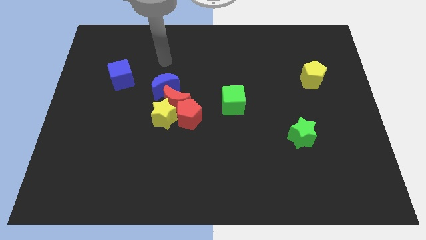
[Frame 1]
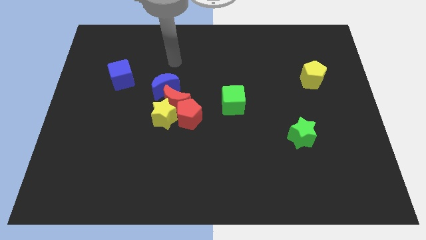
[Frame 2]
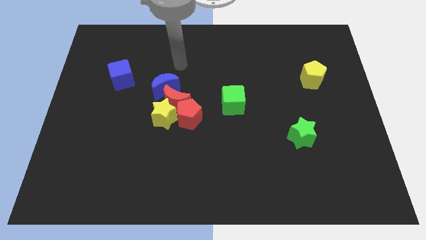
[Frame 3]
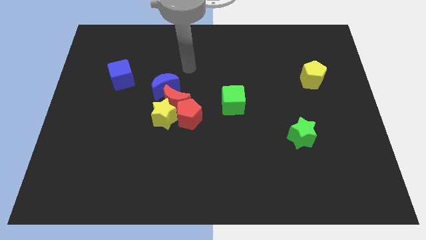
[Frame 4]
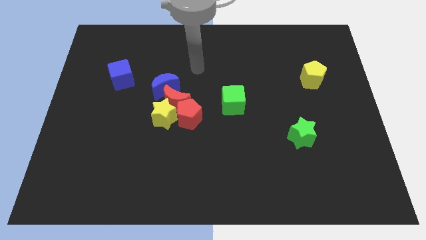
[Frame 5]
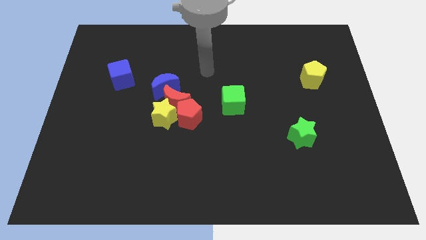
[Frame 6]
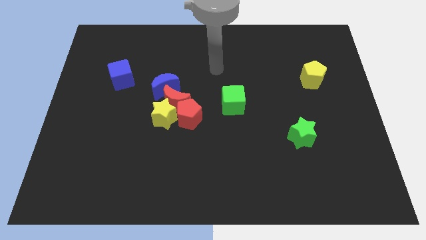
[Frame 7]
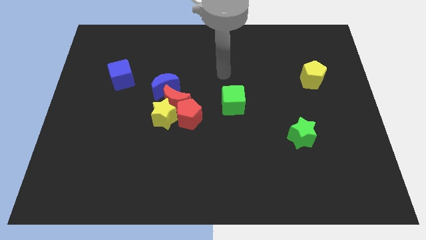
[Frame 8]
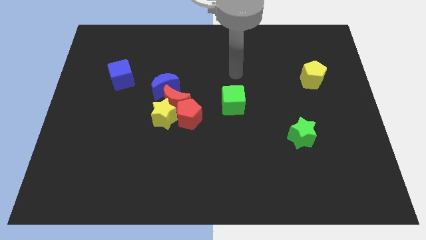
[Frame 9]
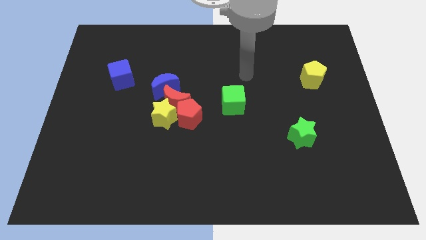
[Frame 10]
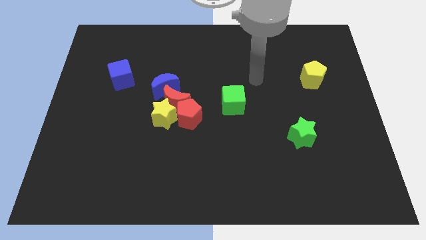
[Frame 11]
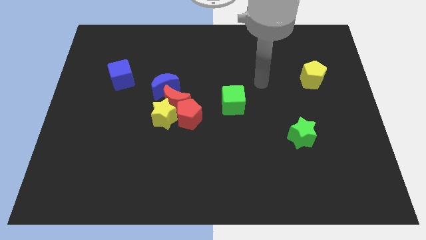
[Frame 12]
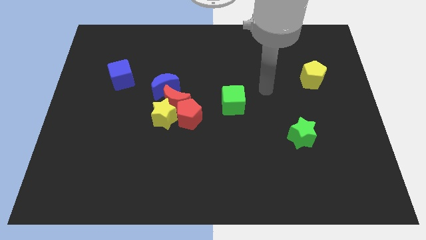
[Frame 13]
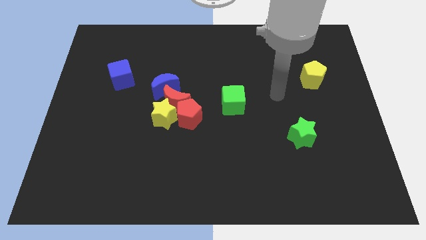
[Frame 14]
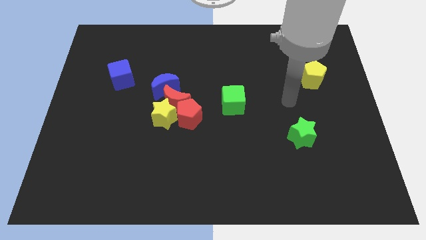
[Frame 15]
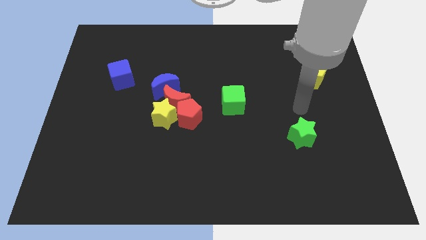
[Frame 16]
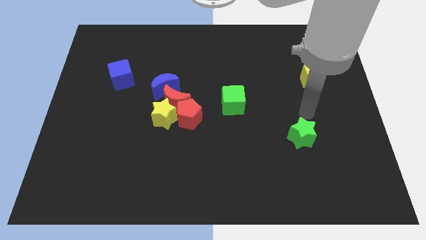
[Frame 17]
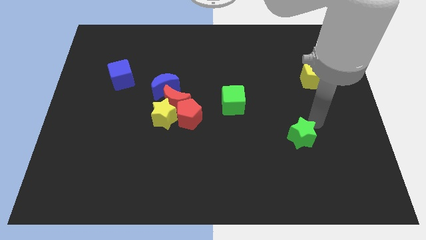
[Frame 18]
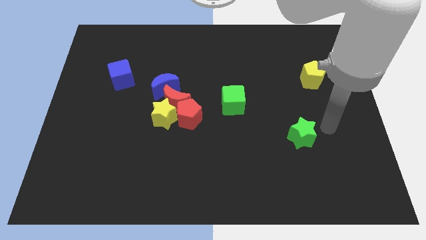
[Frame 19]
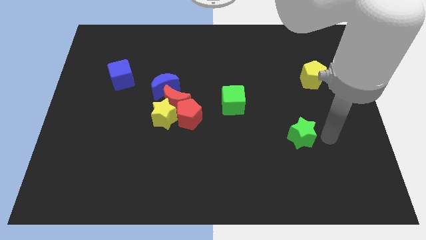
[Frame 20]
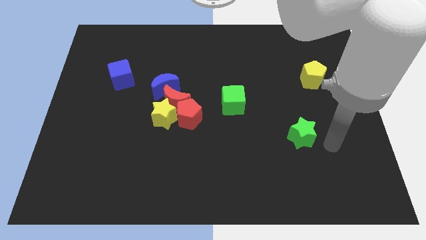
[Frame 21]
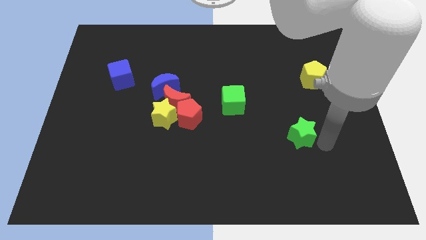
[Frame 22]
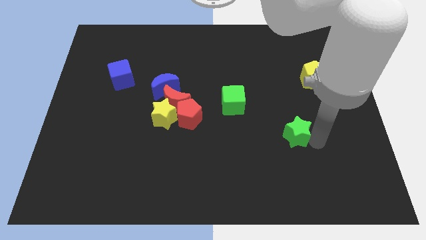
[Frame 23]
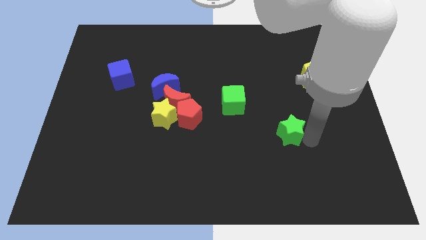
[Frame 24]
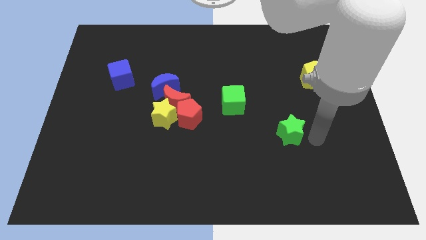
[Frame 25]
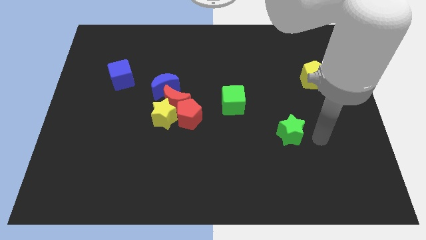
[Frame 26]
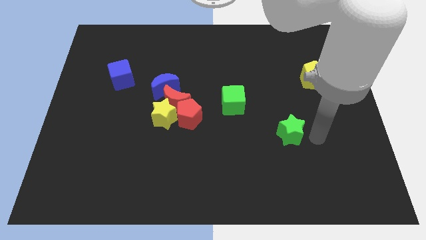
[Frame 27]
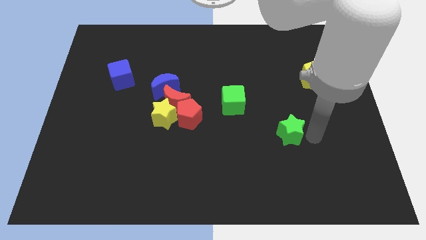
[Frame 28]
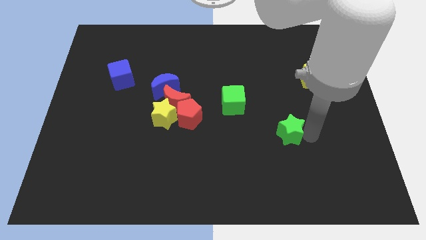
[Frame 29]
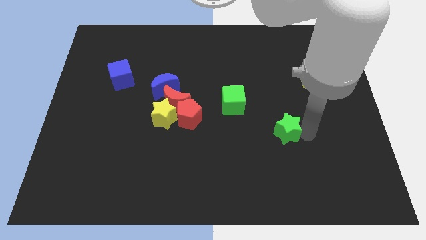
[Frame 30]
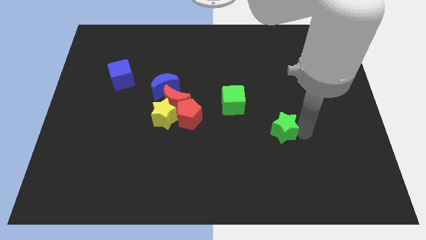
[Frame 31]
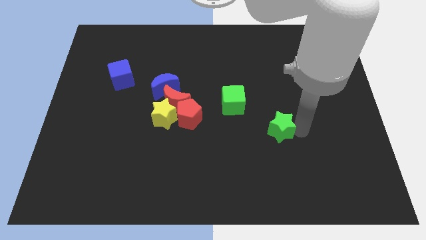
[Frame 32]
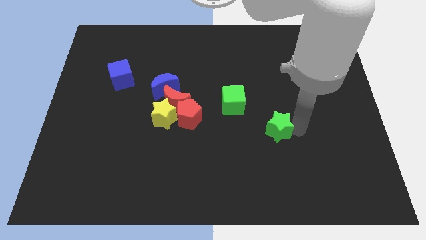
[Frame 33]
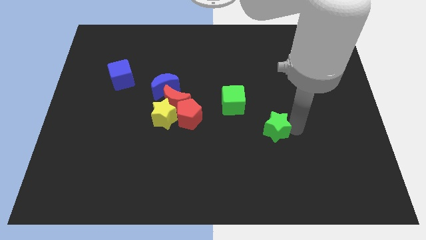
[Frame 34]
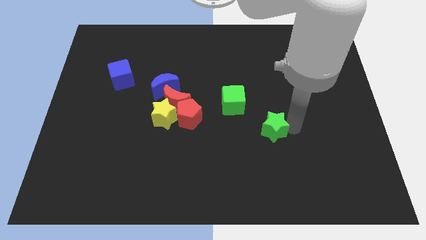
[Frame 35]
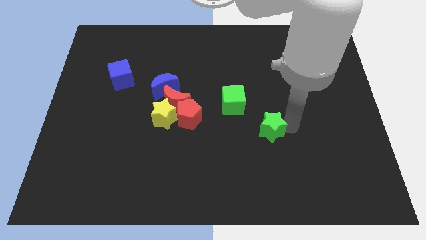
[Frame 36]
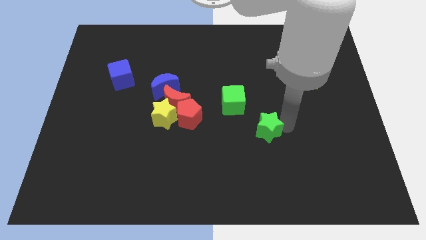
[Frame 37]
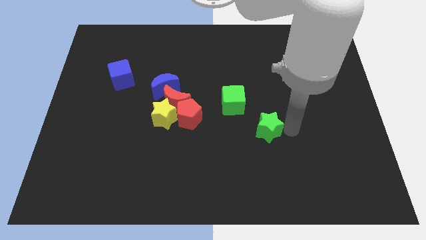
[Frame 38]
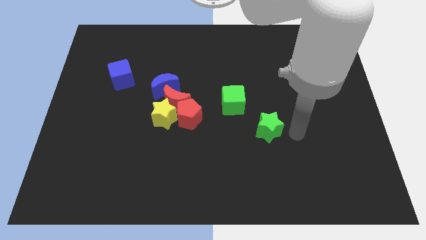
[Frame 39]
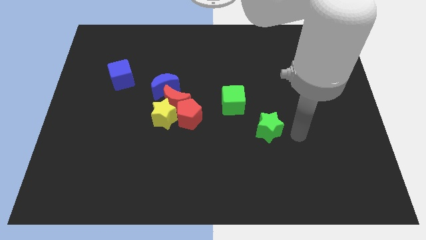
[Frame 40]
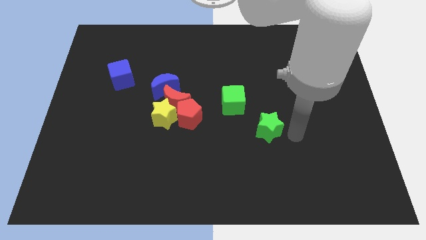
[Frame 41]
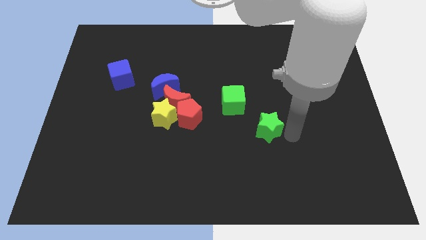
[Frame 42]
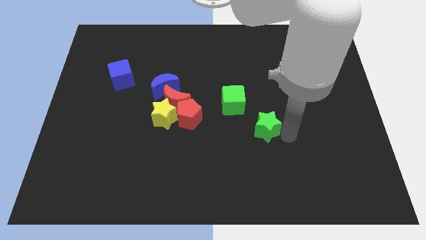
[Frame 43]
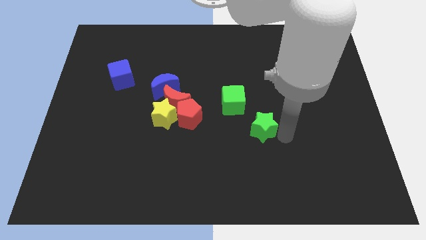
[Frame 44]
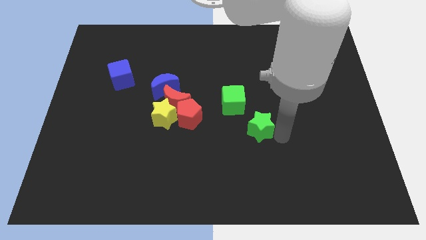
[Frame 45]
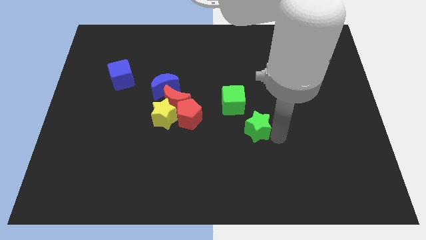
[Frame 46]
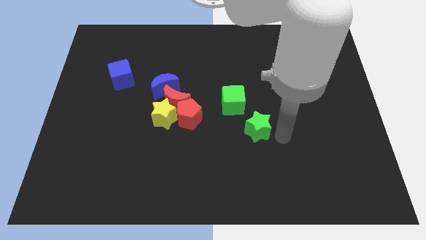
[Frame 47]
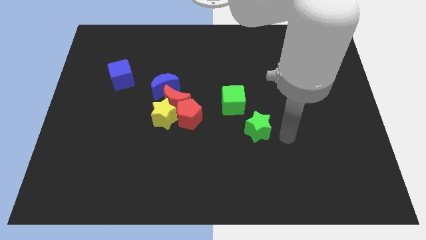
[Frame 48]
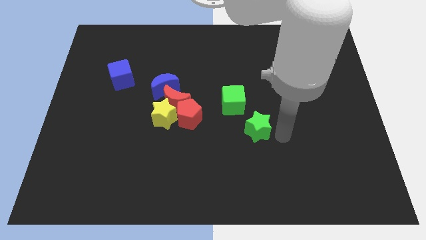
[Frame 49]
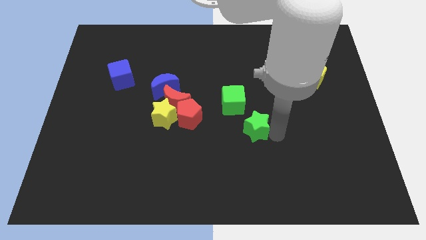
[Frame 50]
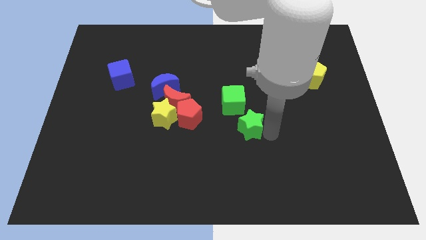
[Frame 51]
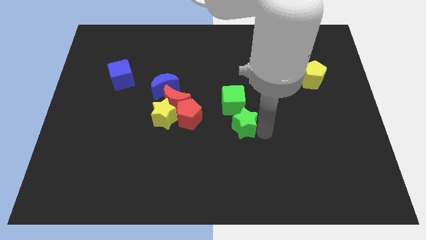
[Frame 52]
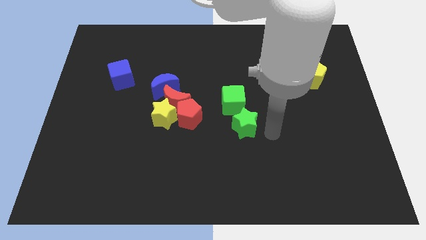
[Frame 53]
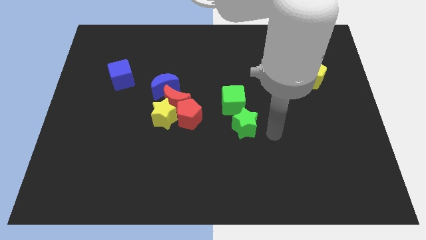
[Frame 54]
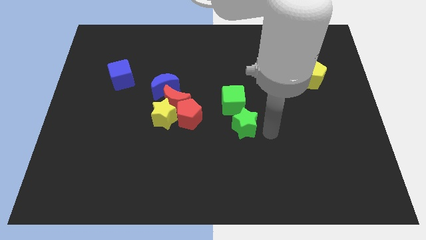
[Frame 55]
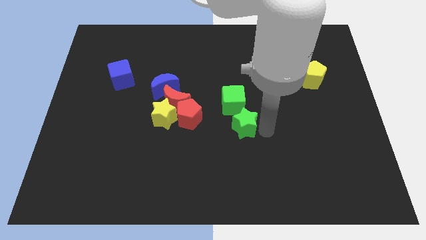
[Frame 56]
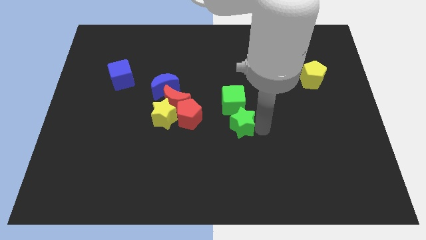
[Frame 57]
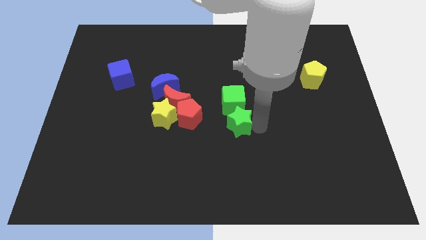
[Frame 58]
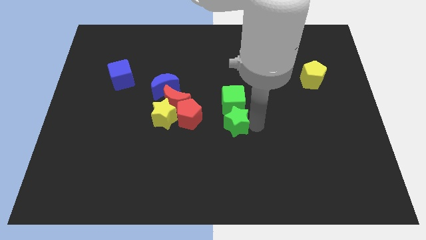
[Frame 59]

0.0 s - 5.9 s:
move the green star to the bottom left side of the green cube

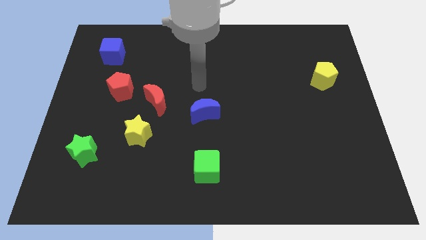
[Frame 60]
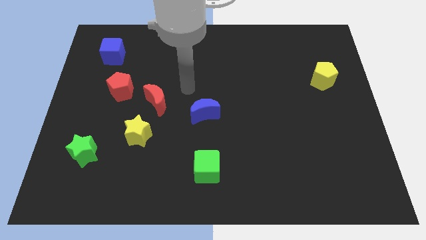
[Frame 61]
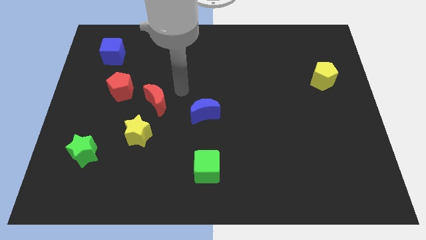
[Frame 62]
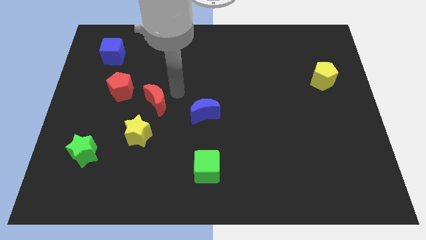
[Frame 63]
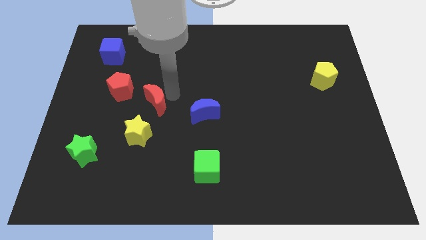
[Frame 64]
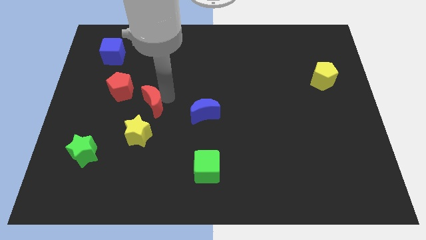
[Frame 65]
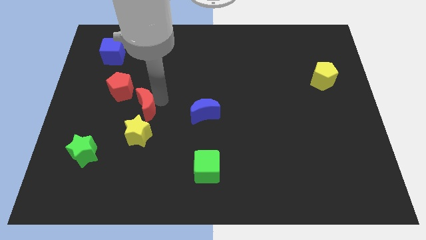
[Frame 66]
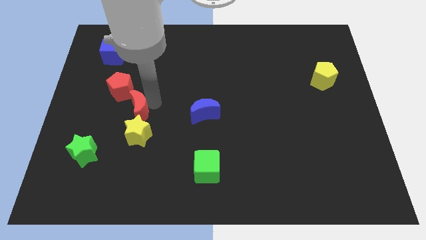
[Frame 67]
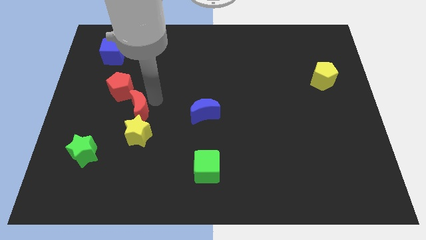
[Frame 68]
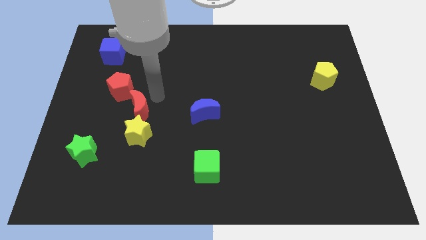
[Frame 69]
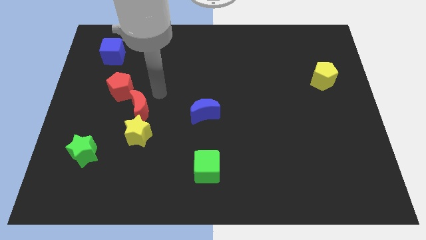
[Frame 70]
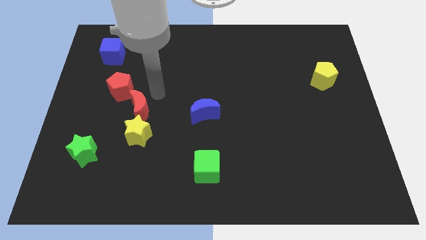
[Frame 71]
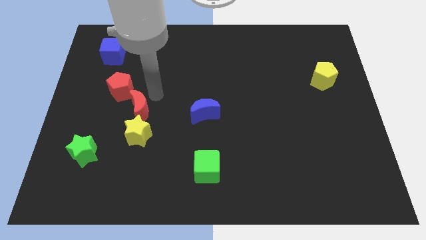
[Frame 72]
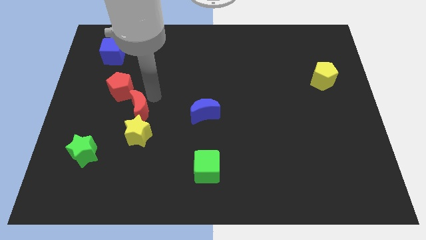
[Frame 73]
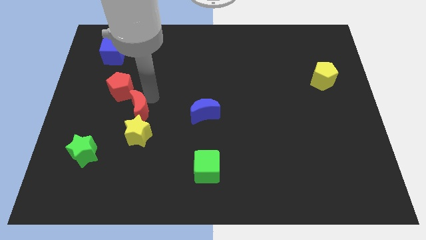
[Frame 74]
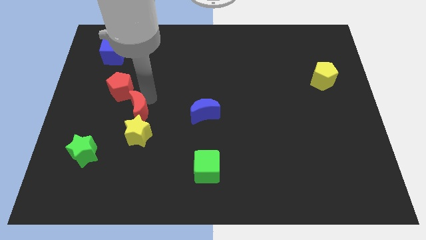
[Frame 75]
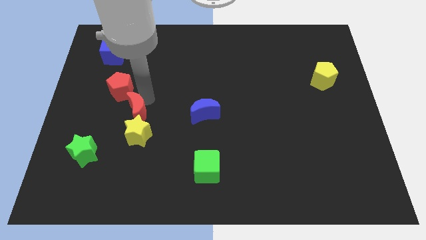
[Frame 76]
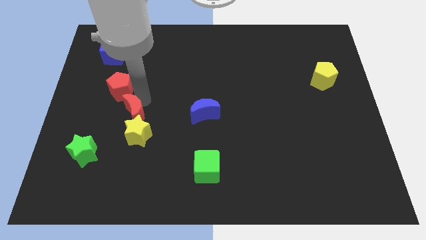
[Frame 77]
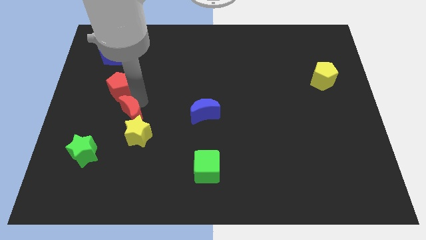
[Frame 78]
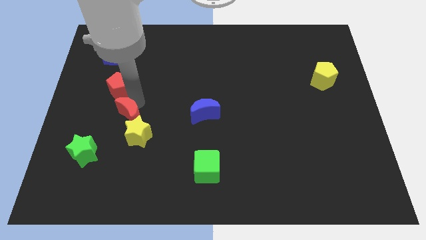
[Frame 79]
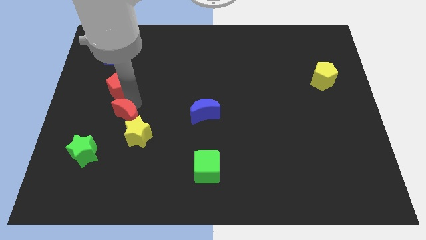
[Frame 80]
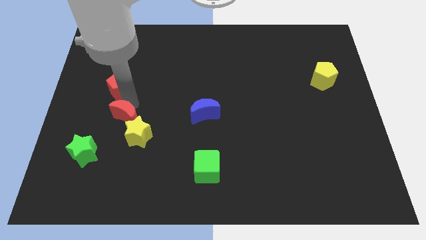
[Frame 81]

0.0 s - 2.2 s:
slide the red moon to the top right of the green star
